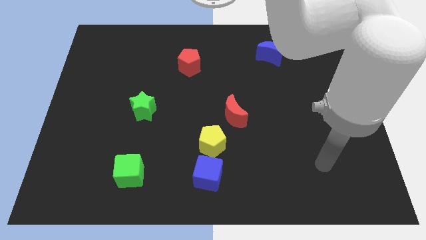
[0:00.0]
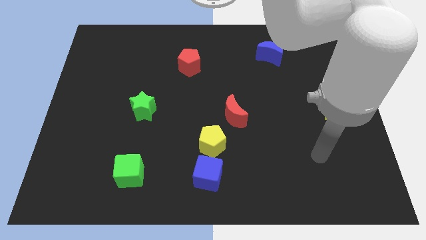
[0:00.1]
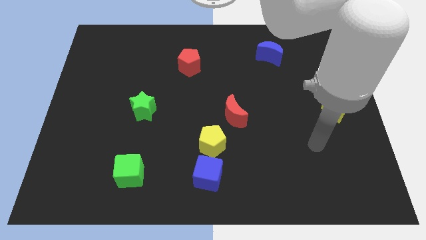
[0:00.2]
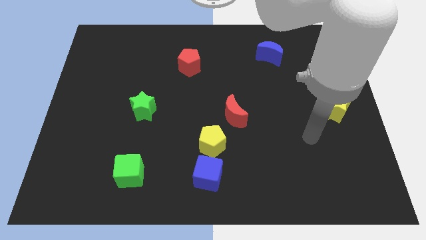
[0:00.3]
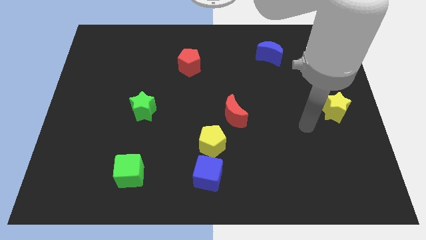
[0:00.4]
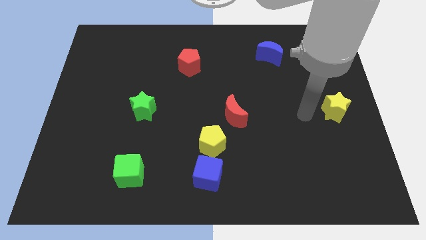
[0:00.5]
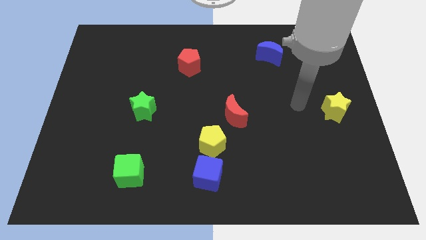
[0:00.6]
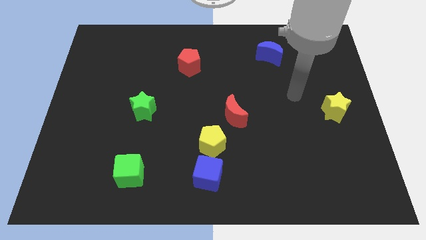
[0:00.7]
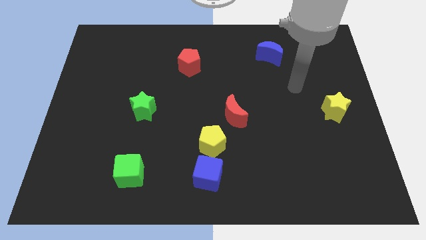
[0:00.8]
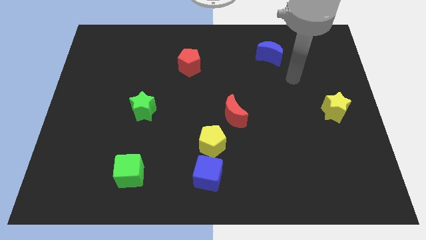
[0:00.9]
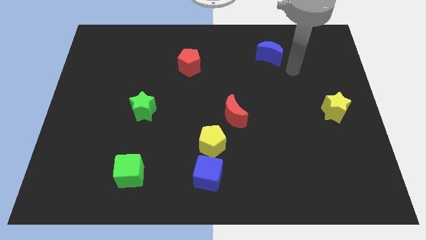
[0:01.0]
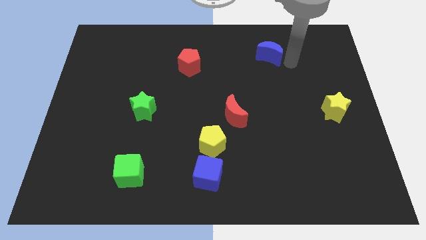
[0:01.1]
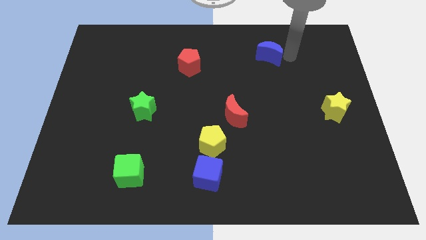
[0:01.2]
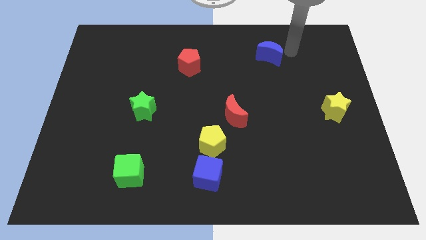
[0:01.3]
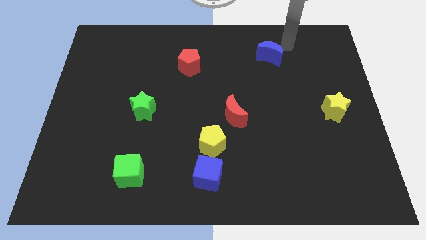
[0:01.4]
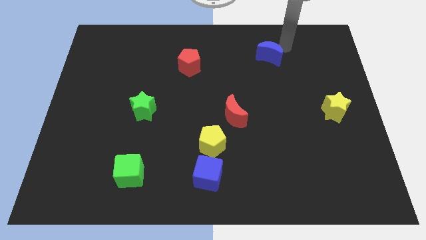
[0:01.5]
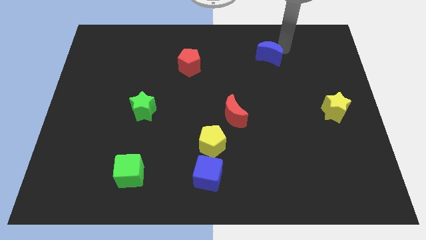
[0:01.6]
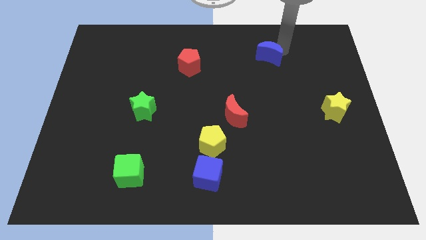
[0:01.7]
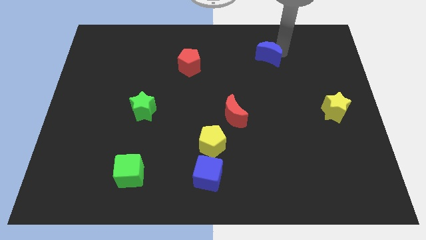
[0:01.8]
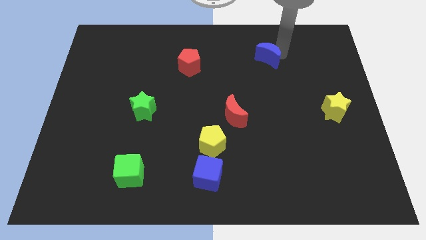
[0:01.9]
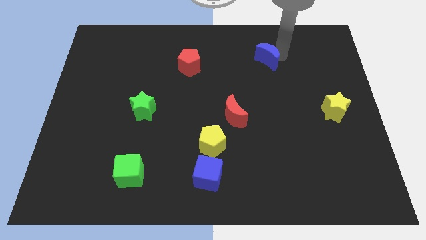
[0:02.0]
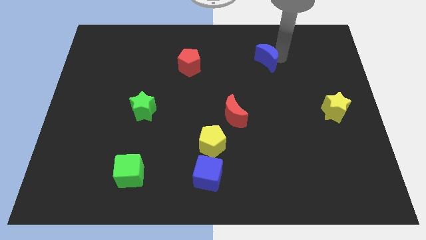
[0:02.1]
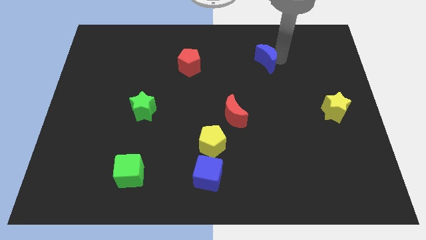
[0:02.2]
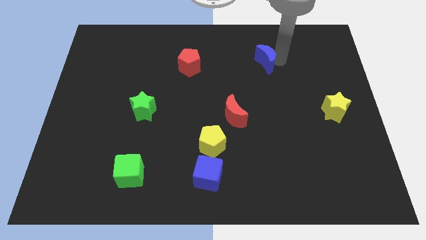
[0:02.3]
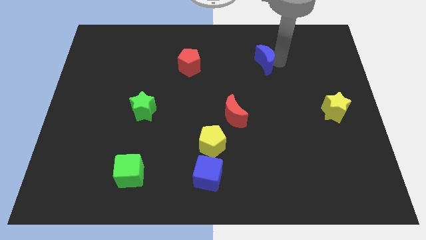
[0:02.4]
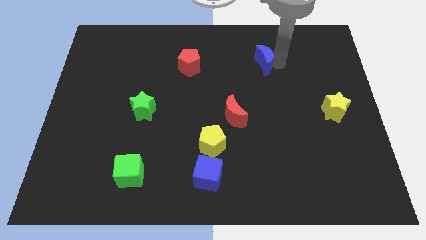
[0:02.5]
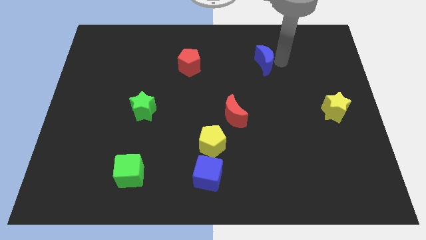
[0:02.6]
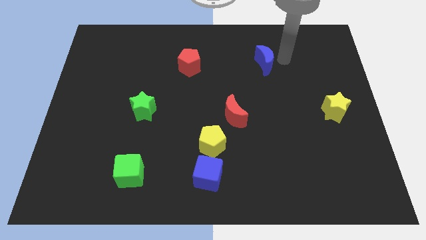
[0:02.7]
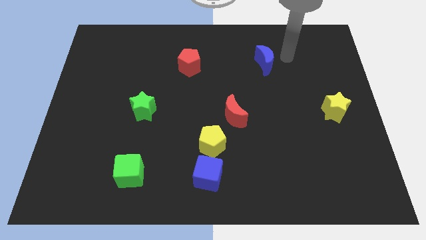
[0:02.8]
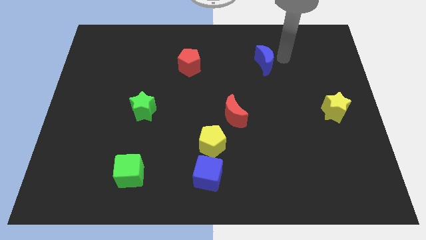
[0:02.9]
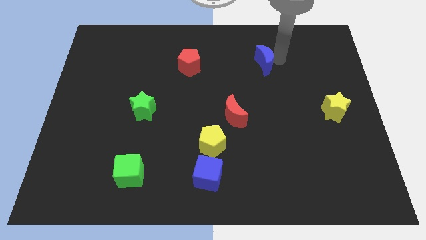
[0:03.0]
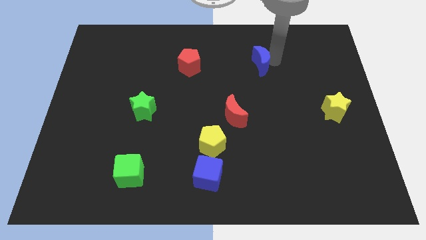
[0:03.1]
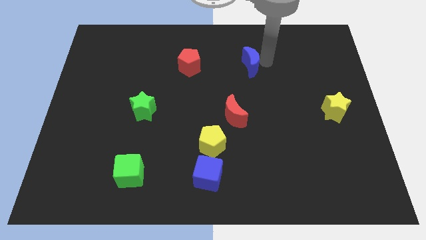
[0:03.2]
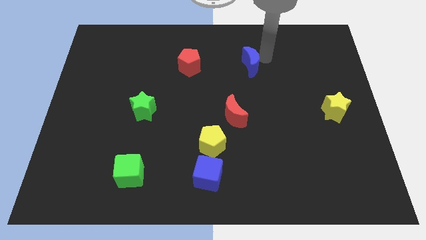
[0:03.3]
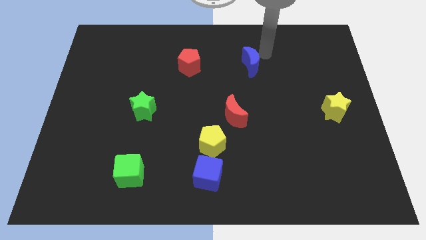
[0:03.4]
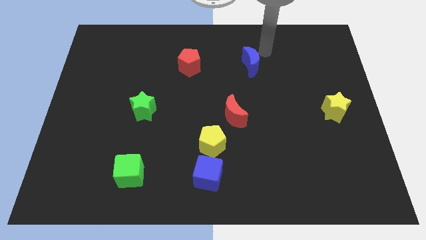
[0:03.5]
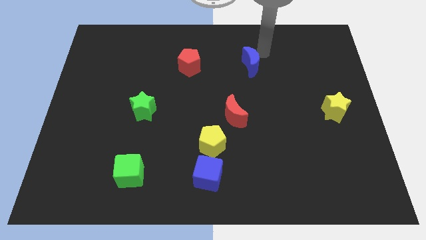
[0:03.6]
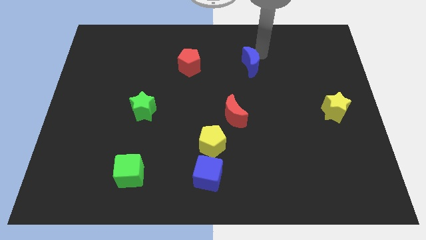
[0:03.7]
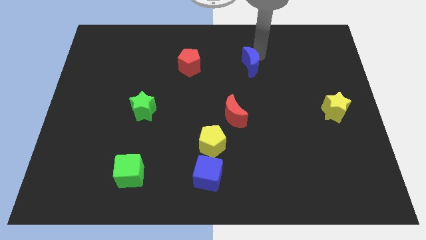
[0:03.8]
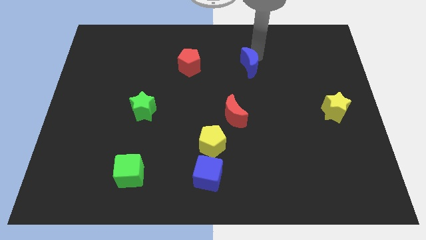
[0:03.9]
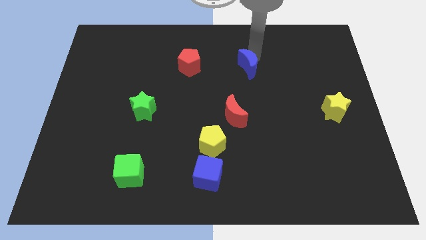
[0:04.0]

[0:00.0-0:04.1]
move the blue moon down and then left a little

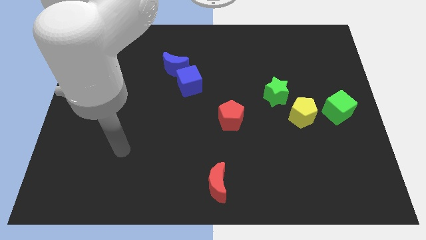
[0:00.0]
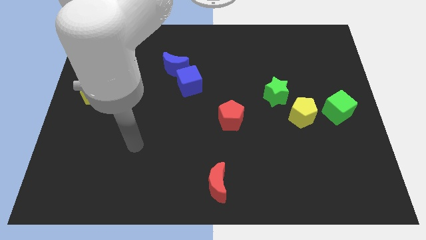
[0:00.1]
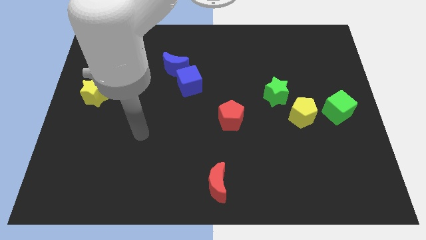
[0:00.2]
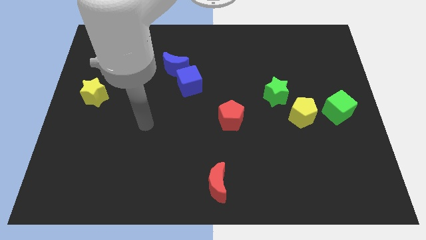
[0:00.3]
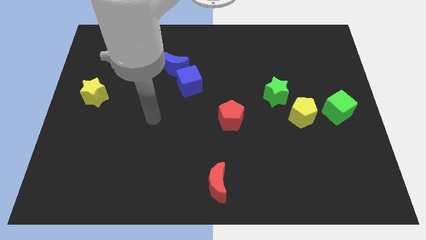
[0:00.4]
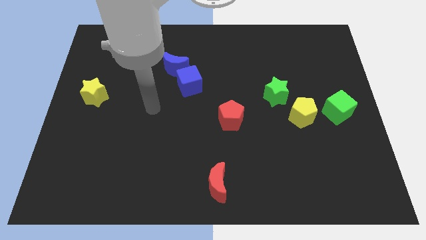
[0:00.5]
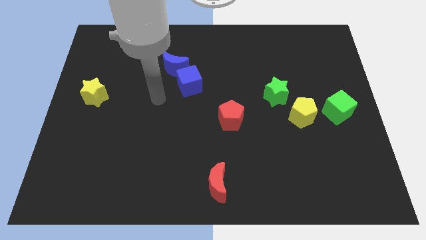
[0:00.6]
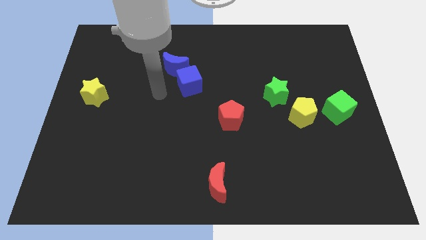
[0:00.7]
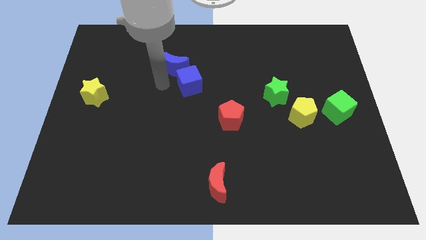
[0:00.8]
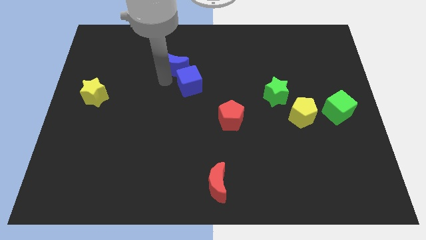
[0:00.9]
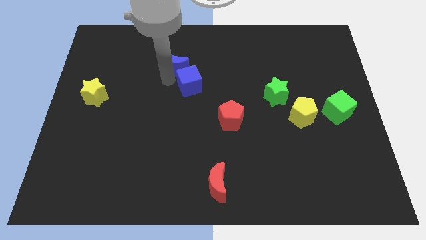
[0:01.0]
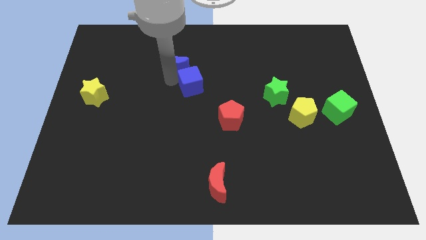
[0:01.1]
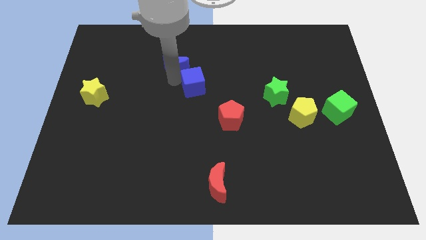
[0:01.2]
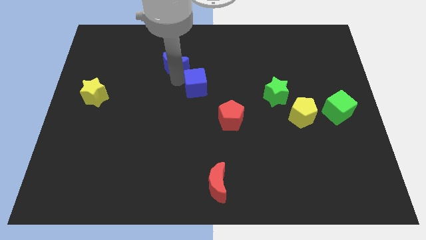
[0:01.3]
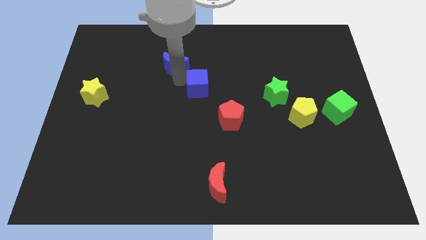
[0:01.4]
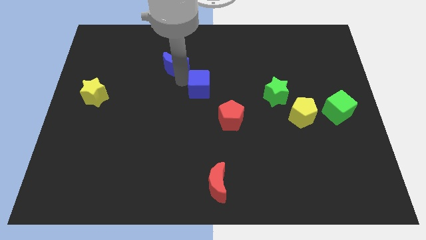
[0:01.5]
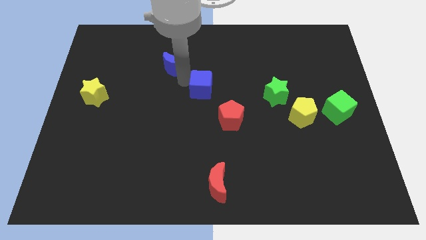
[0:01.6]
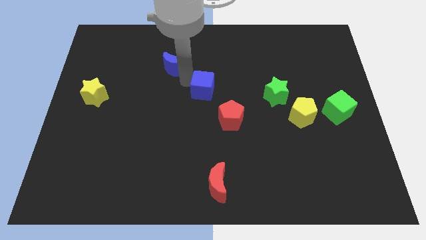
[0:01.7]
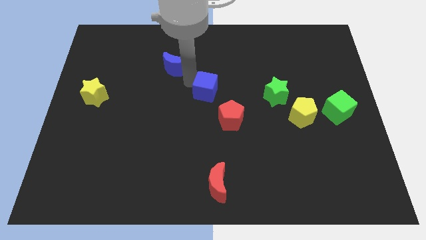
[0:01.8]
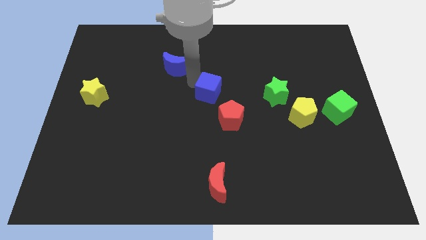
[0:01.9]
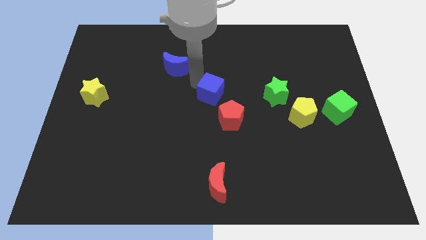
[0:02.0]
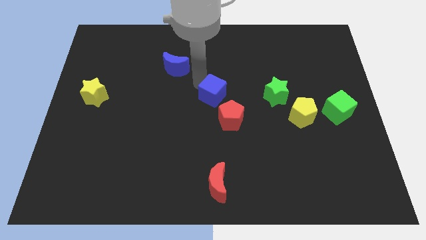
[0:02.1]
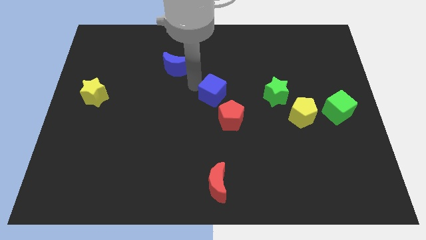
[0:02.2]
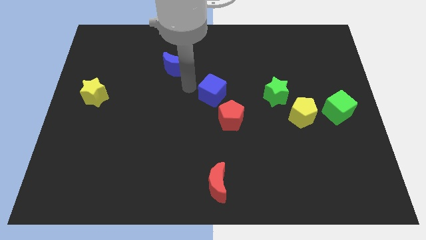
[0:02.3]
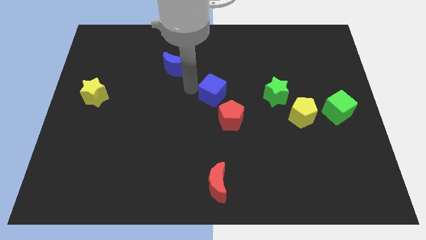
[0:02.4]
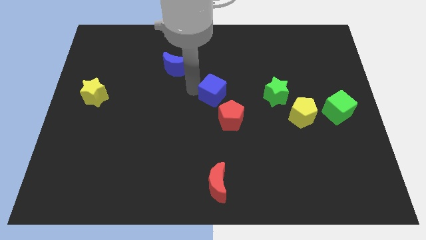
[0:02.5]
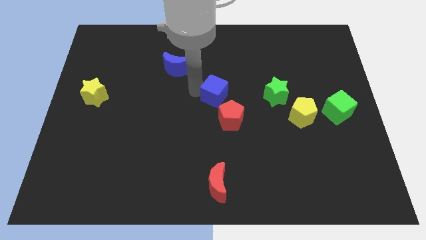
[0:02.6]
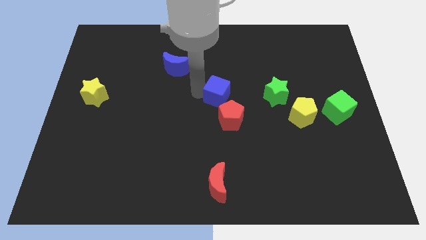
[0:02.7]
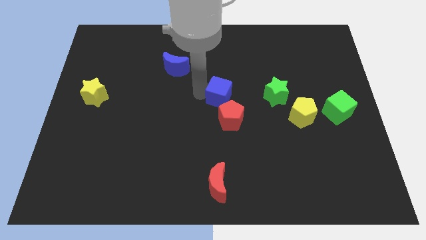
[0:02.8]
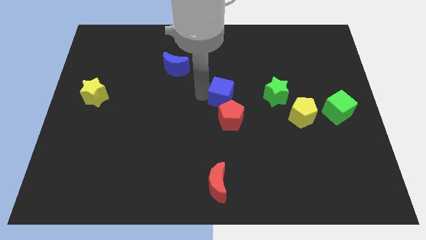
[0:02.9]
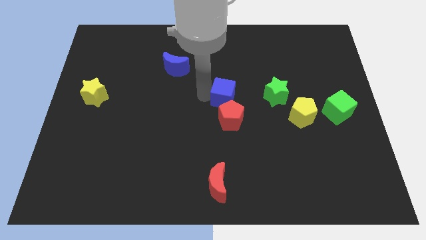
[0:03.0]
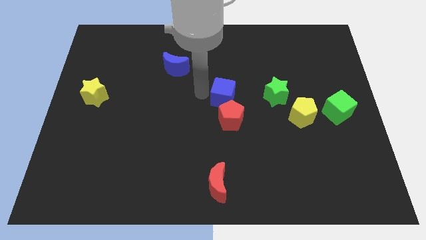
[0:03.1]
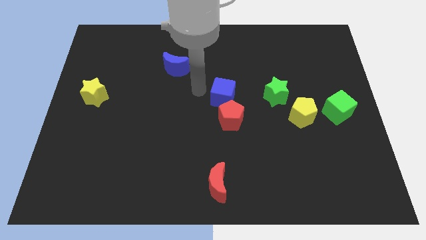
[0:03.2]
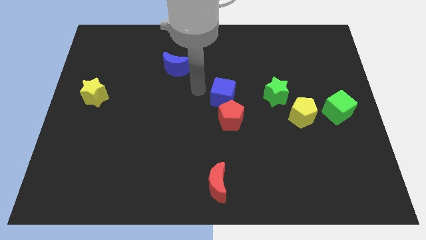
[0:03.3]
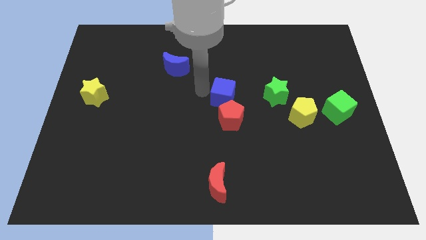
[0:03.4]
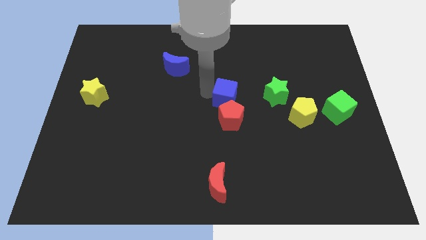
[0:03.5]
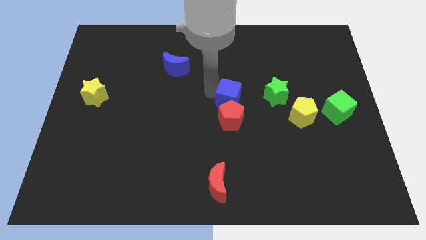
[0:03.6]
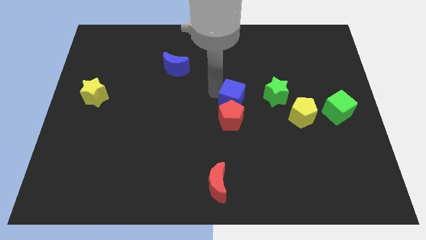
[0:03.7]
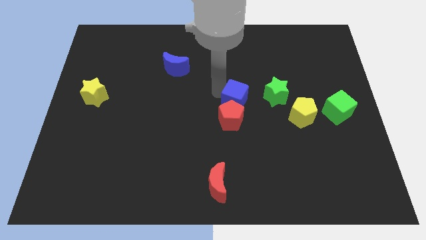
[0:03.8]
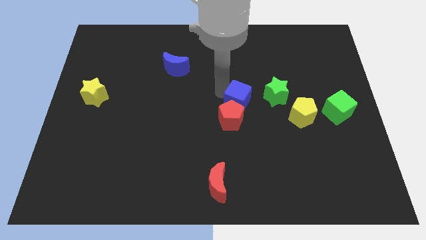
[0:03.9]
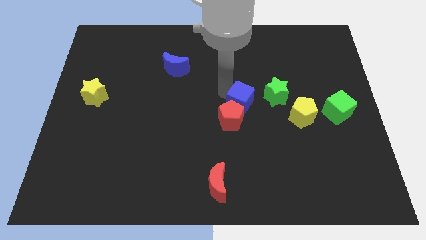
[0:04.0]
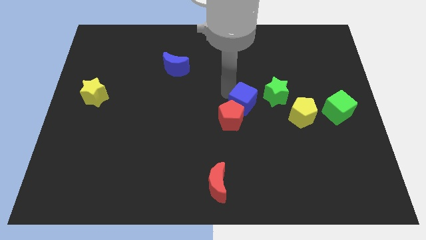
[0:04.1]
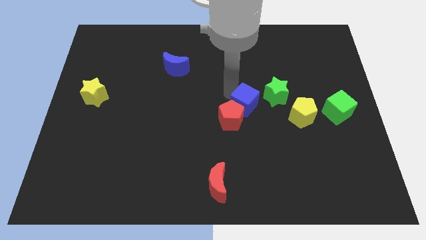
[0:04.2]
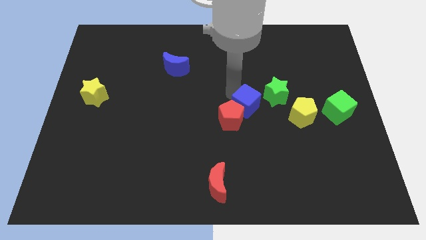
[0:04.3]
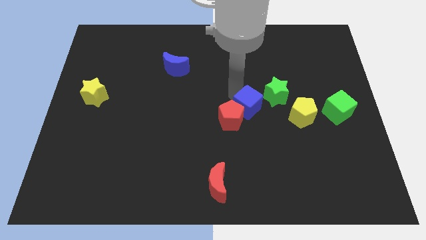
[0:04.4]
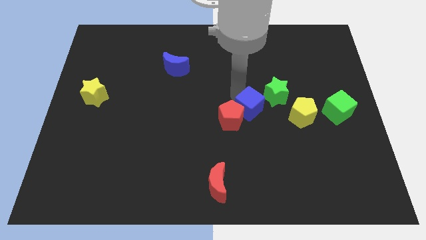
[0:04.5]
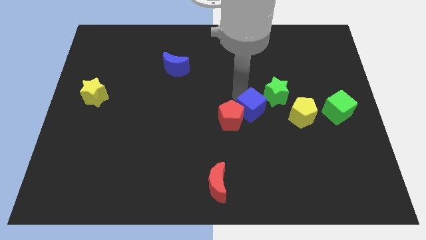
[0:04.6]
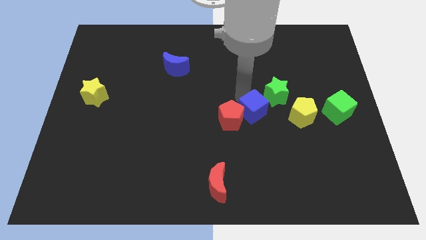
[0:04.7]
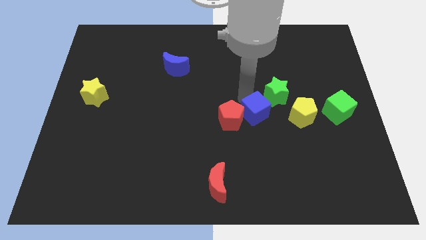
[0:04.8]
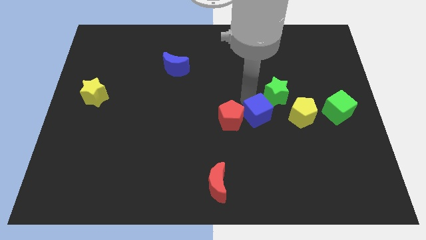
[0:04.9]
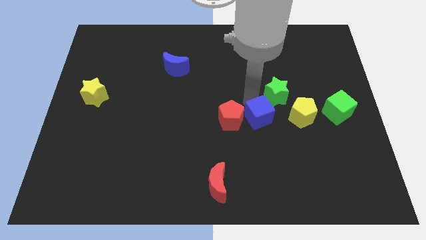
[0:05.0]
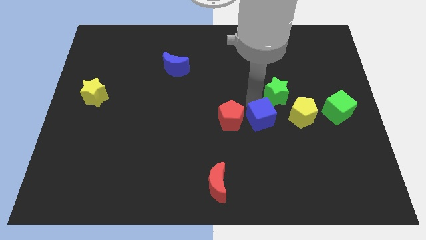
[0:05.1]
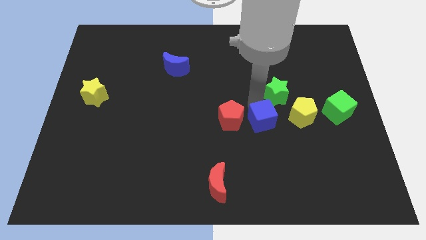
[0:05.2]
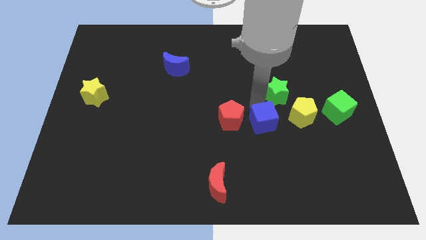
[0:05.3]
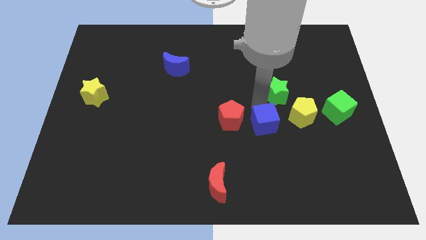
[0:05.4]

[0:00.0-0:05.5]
move the blue cube downwards and right diagonally
